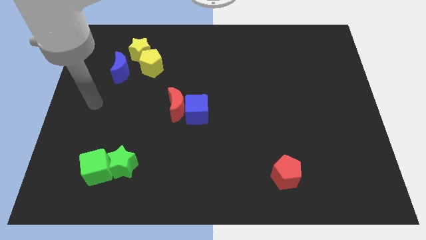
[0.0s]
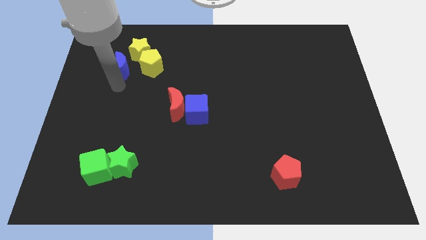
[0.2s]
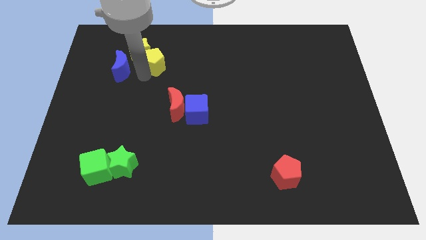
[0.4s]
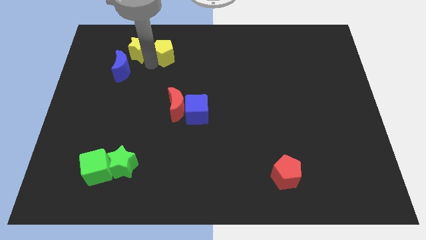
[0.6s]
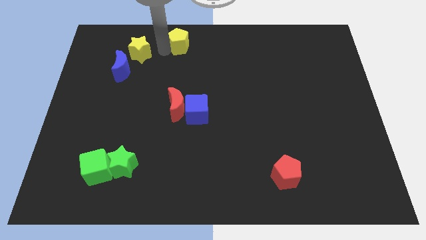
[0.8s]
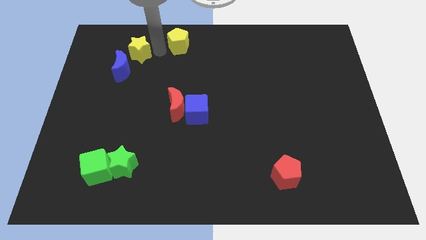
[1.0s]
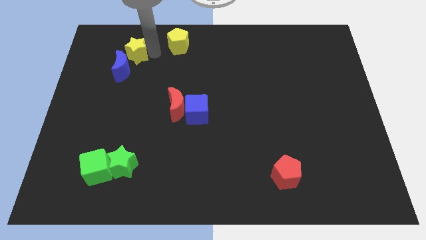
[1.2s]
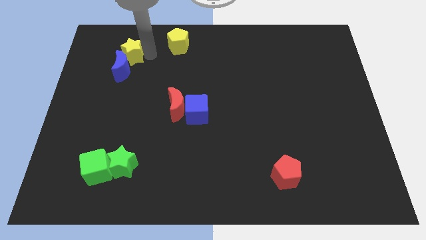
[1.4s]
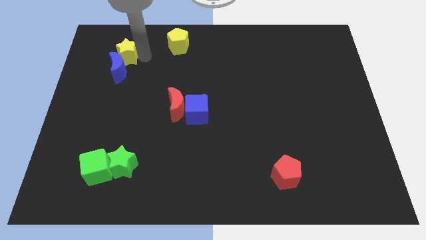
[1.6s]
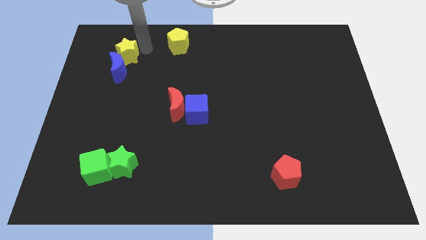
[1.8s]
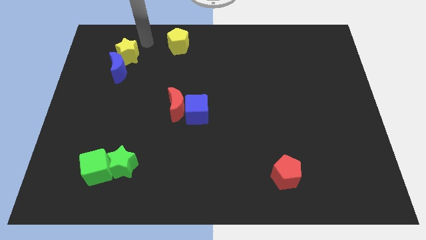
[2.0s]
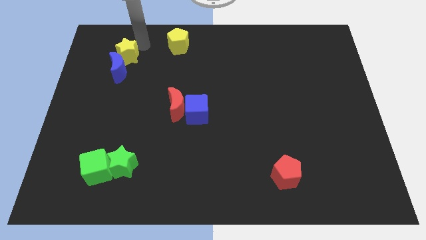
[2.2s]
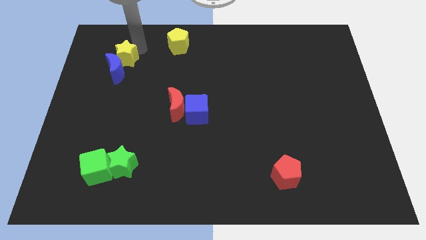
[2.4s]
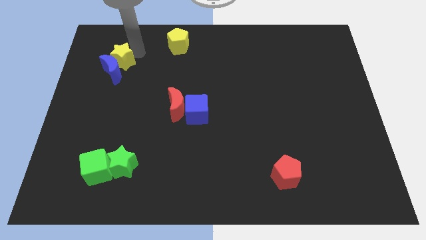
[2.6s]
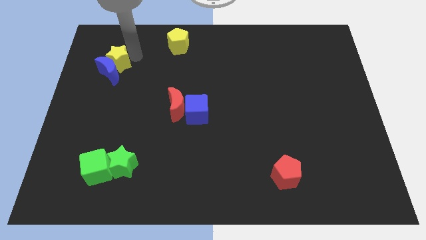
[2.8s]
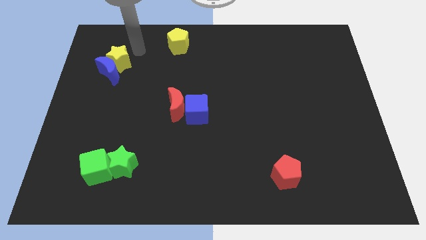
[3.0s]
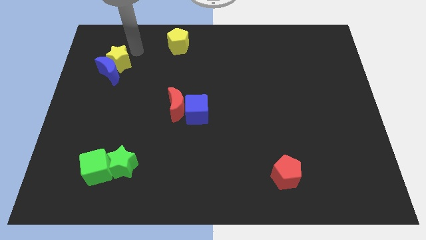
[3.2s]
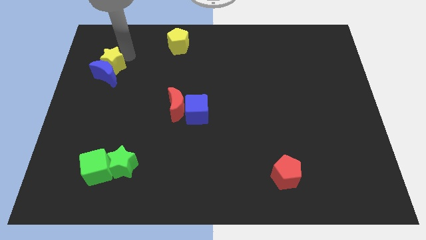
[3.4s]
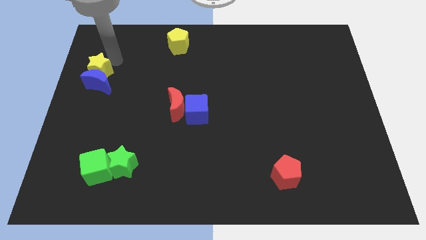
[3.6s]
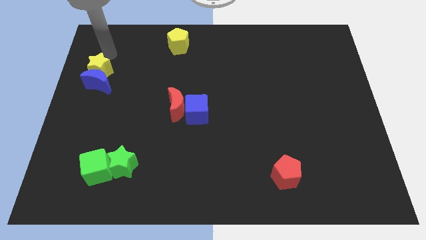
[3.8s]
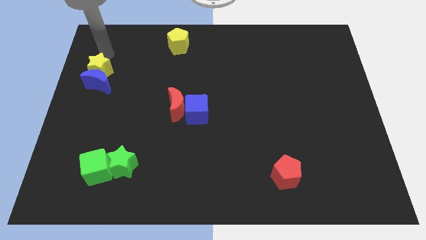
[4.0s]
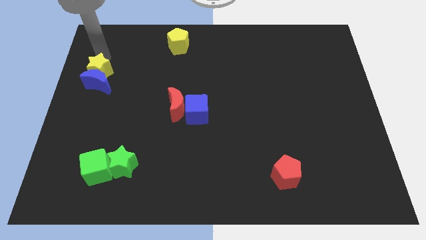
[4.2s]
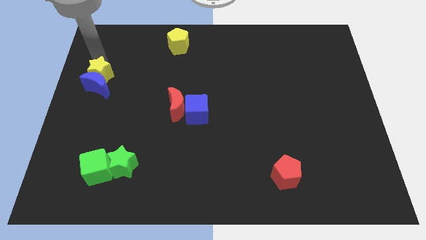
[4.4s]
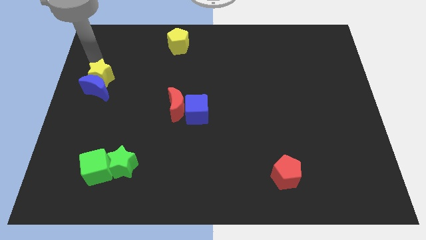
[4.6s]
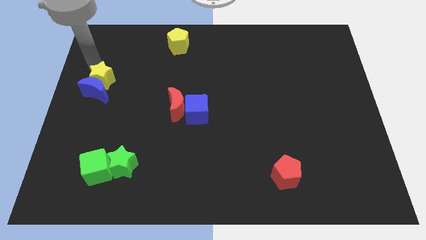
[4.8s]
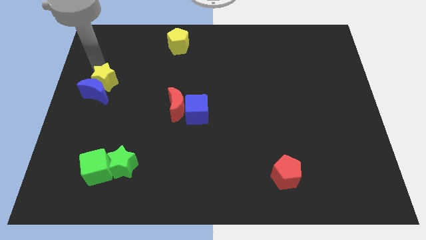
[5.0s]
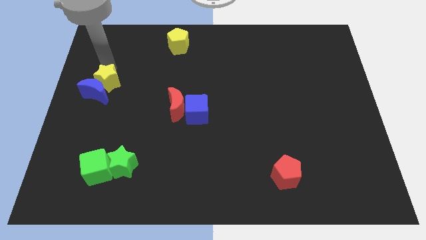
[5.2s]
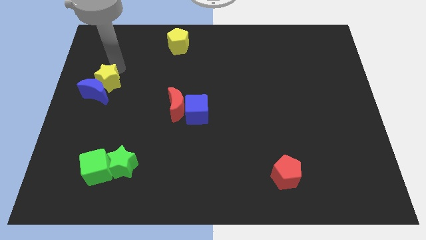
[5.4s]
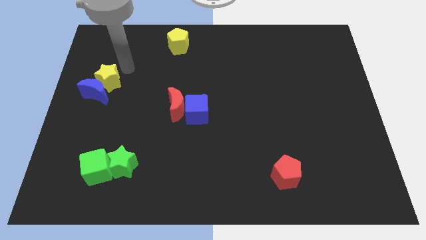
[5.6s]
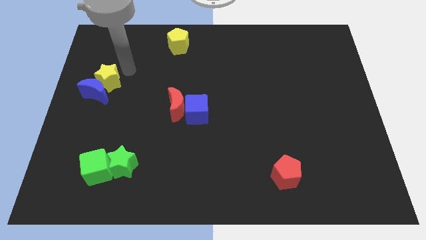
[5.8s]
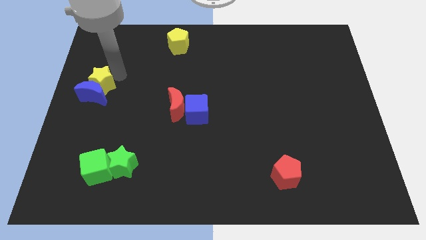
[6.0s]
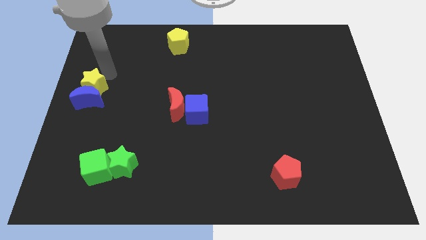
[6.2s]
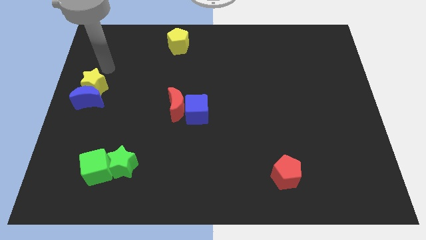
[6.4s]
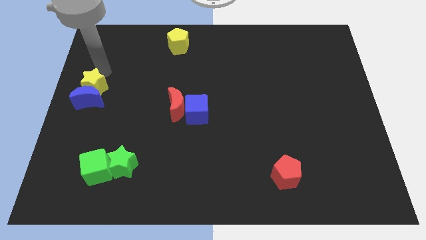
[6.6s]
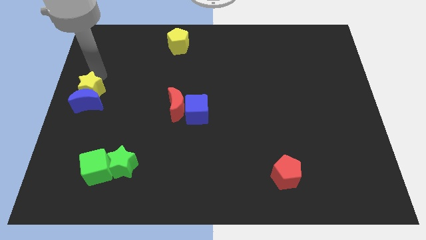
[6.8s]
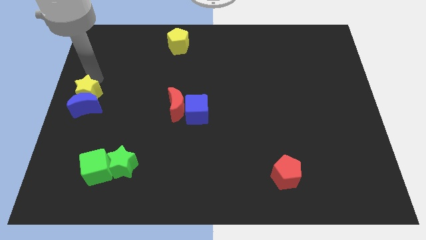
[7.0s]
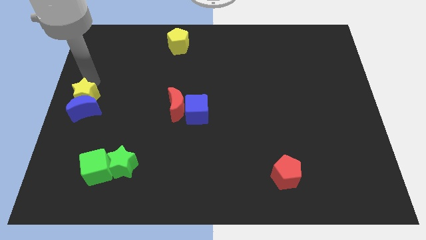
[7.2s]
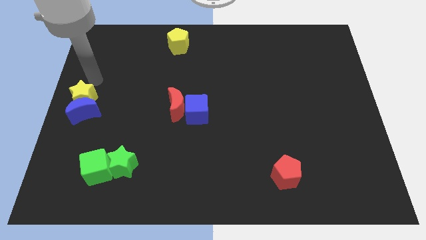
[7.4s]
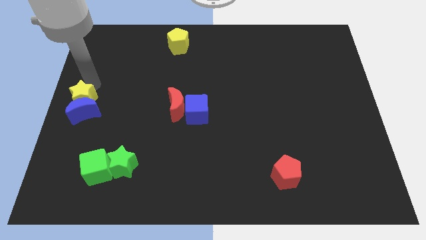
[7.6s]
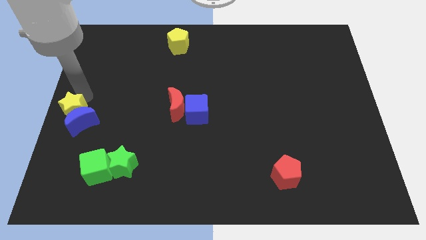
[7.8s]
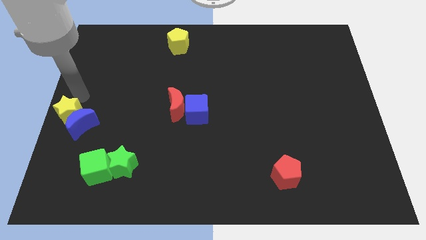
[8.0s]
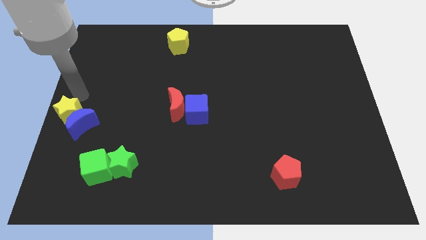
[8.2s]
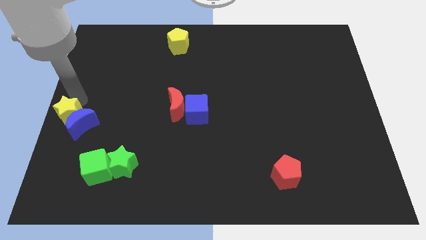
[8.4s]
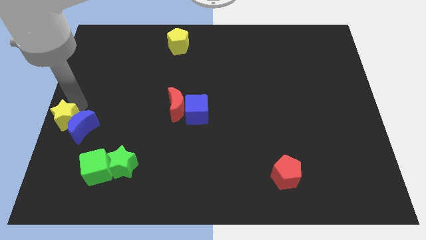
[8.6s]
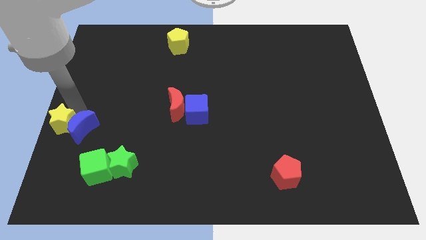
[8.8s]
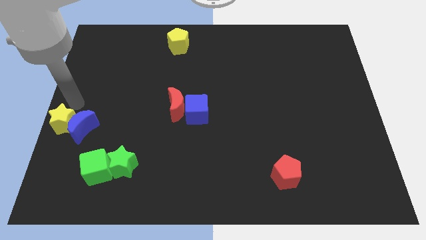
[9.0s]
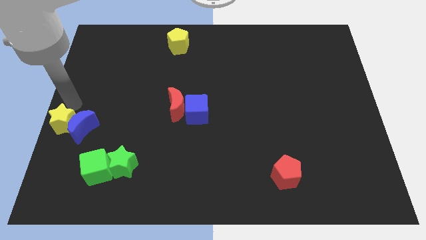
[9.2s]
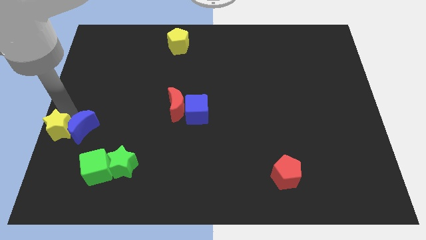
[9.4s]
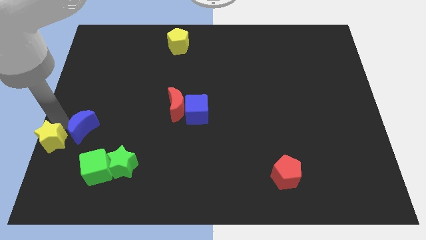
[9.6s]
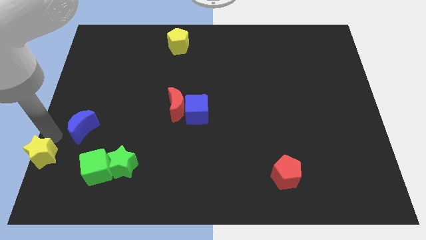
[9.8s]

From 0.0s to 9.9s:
slide the yellow star to the bottom left of the board

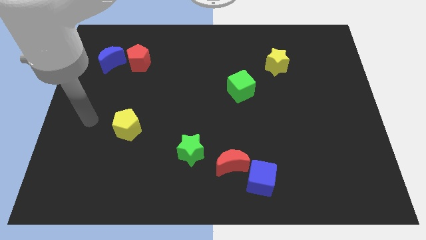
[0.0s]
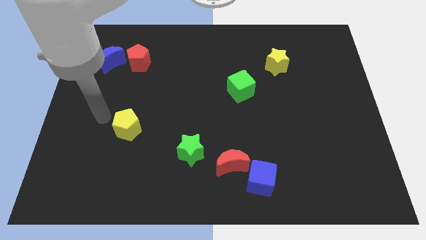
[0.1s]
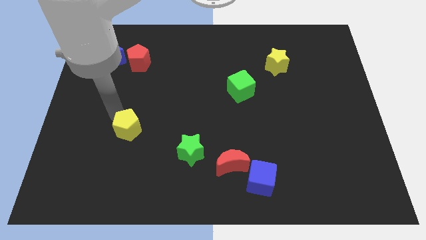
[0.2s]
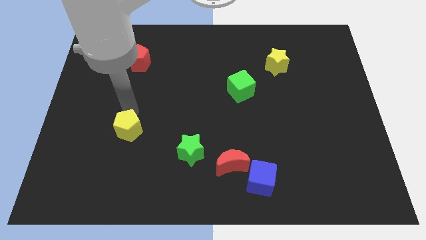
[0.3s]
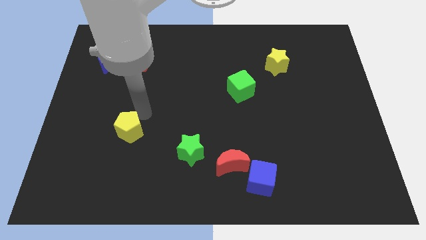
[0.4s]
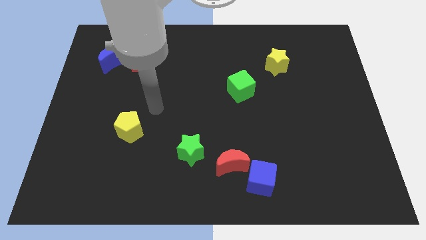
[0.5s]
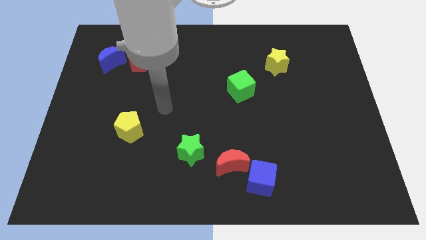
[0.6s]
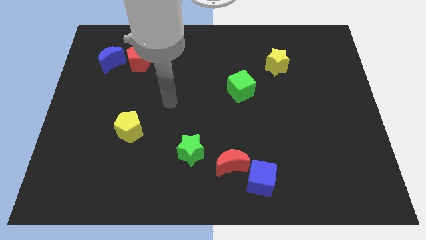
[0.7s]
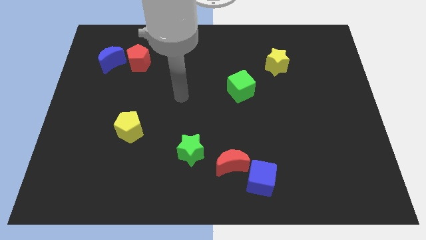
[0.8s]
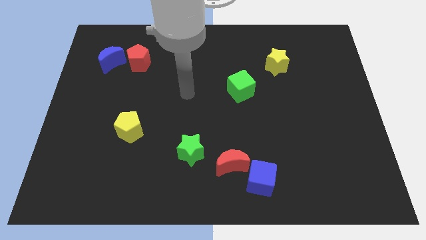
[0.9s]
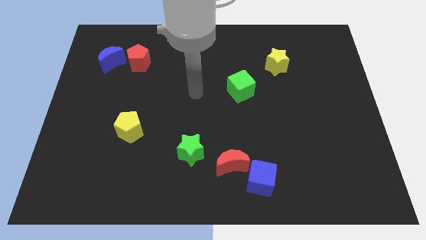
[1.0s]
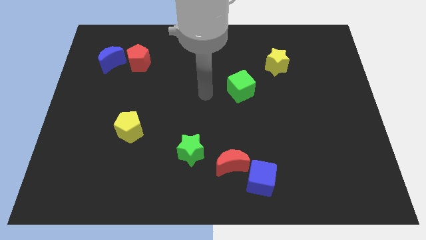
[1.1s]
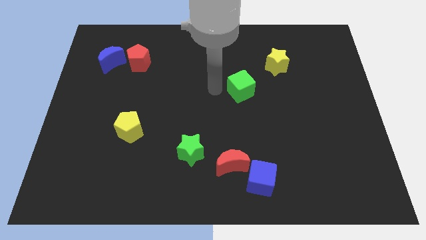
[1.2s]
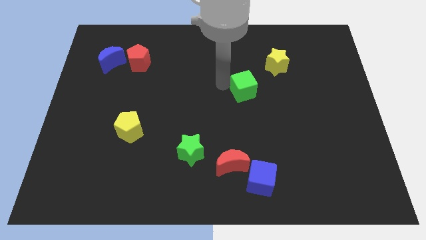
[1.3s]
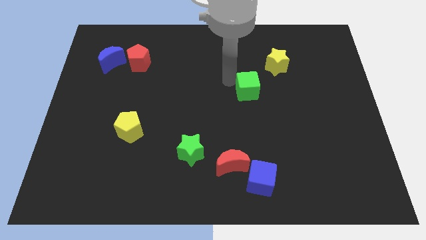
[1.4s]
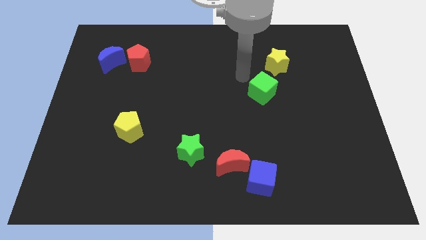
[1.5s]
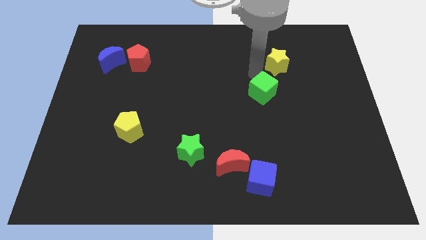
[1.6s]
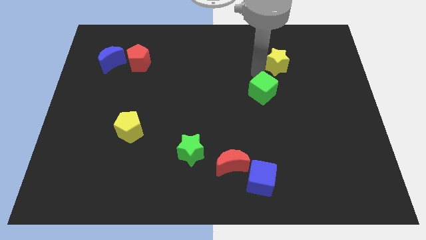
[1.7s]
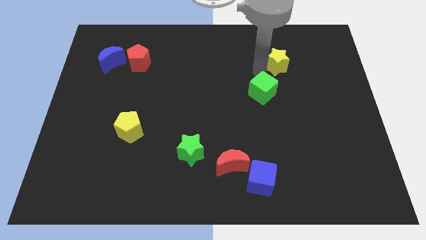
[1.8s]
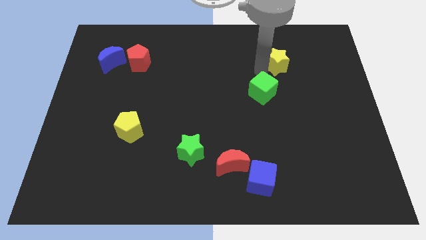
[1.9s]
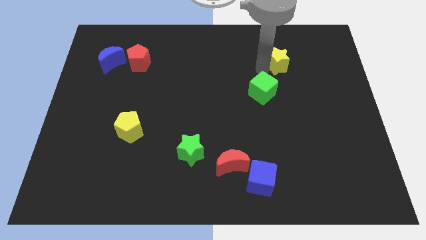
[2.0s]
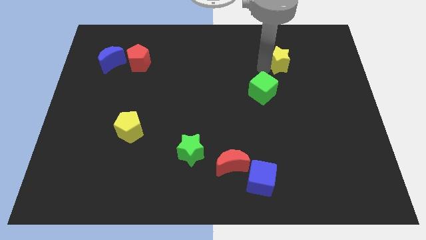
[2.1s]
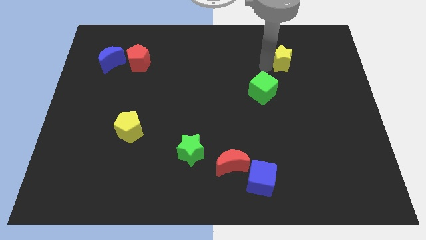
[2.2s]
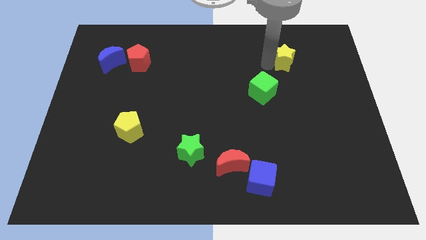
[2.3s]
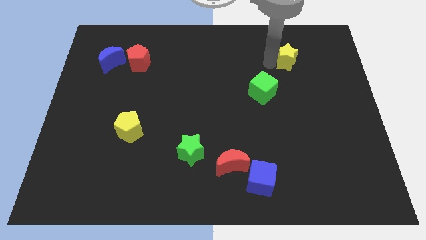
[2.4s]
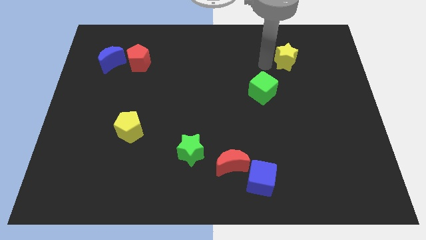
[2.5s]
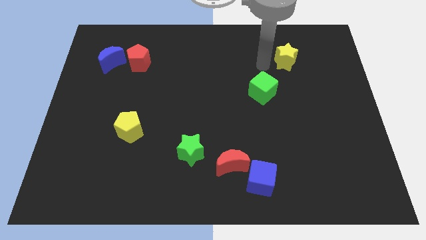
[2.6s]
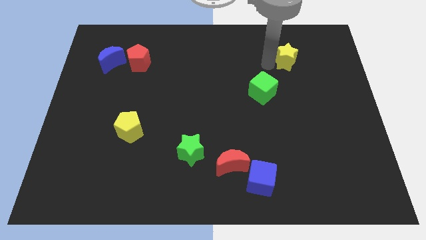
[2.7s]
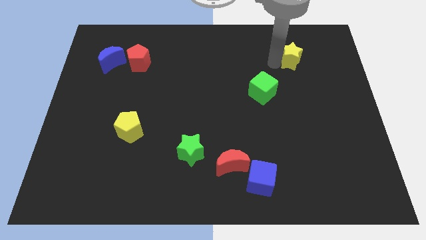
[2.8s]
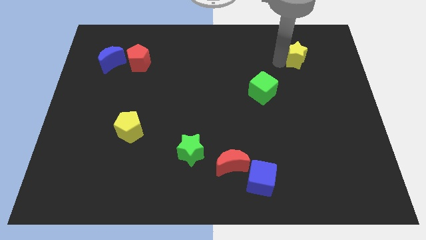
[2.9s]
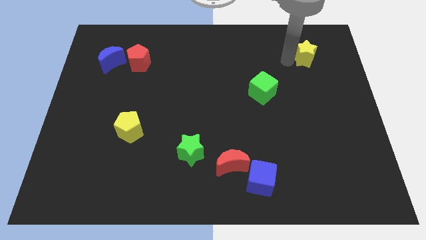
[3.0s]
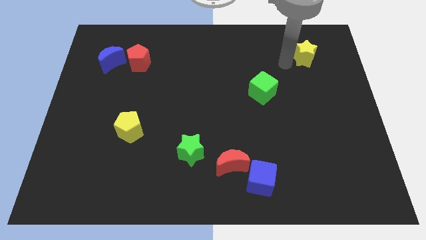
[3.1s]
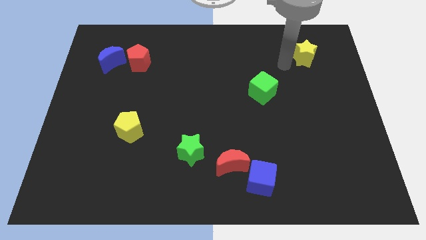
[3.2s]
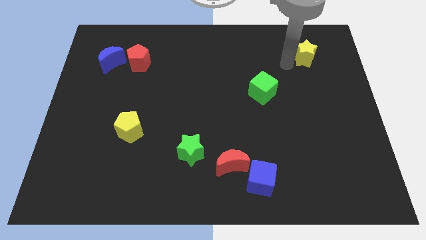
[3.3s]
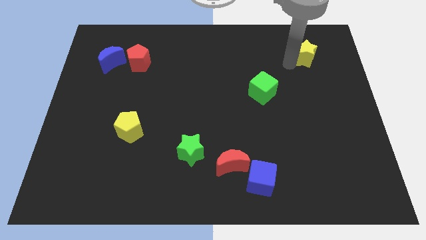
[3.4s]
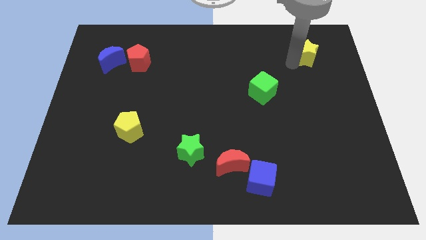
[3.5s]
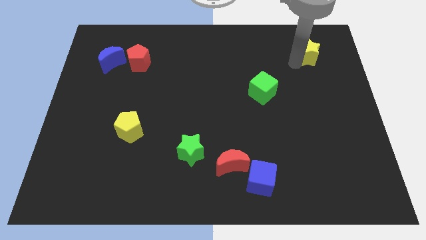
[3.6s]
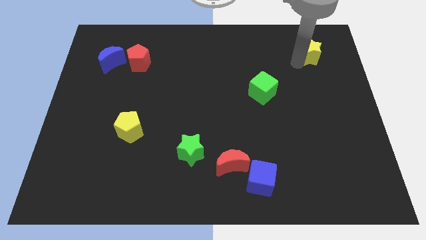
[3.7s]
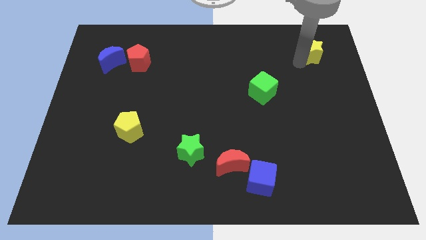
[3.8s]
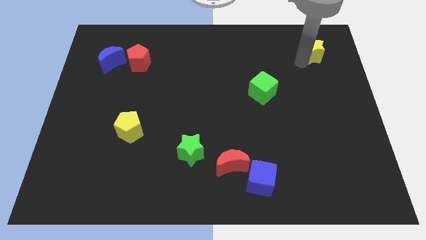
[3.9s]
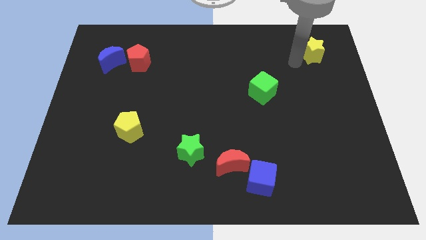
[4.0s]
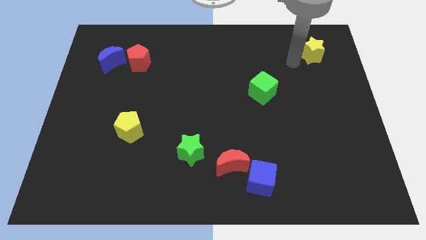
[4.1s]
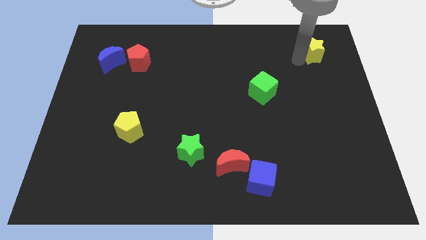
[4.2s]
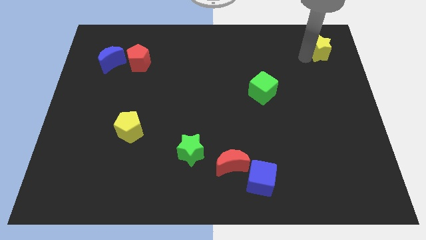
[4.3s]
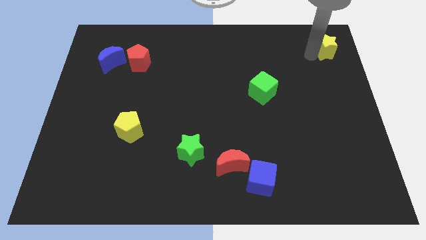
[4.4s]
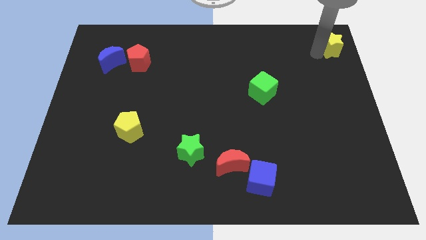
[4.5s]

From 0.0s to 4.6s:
slide the yellow star to the top right of the board
